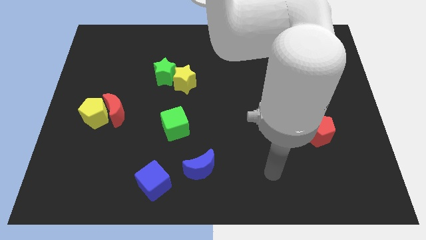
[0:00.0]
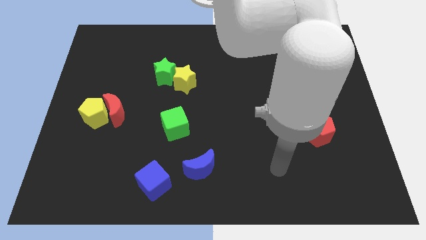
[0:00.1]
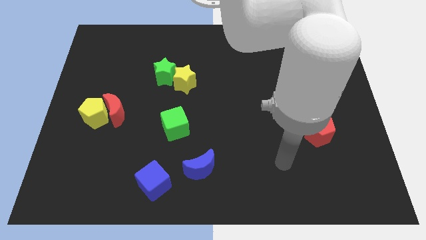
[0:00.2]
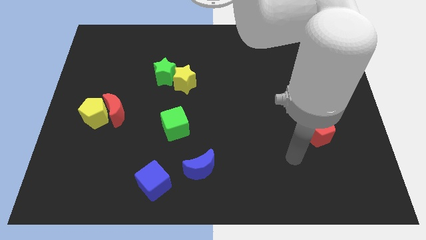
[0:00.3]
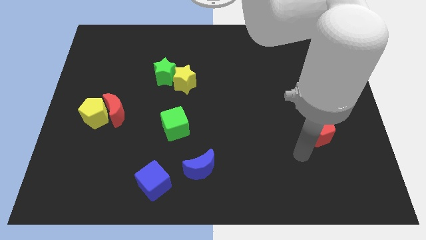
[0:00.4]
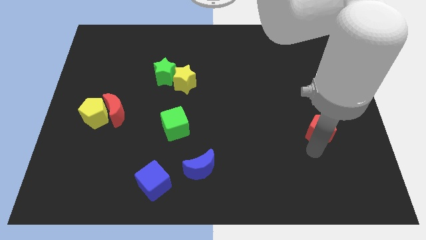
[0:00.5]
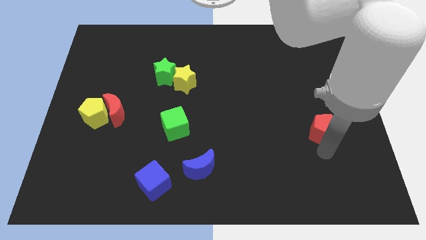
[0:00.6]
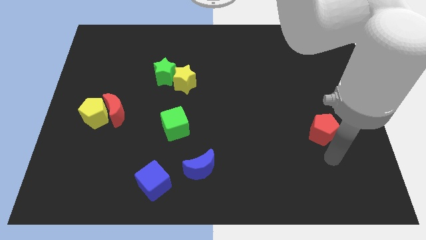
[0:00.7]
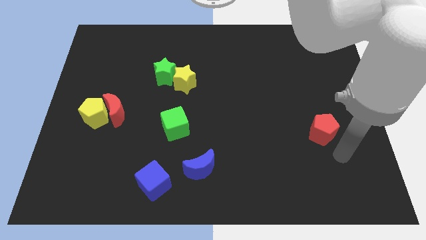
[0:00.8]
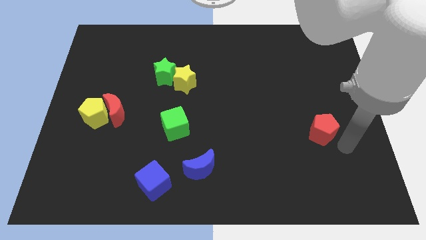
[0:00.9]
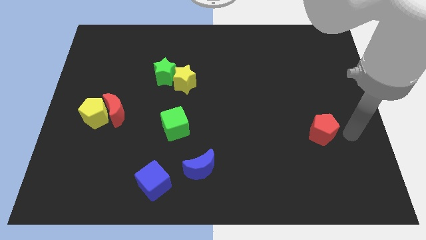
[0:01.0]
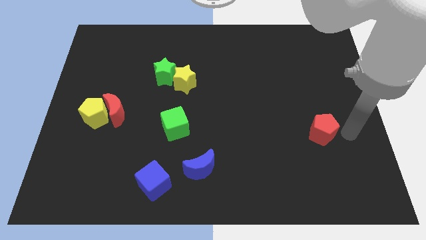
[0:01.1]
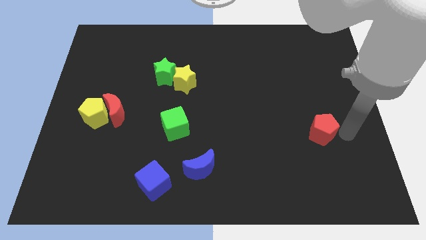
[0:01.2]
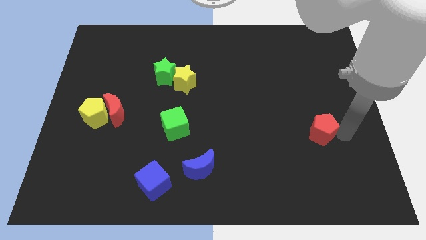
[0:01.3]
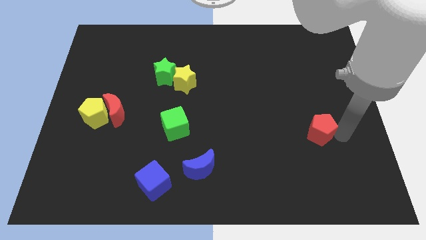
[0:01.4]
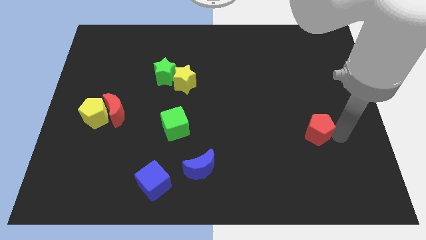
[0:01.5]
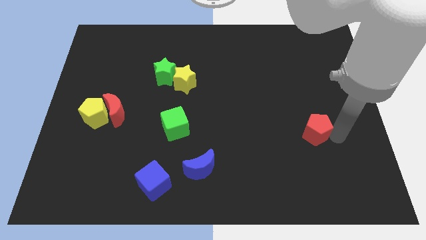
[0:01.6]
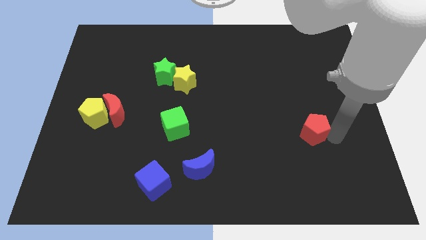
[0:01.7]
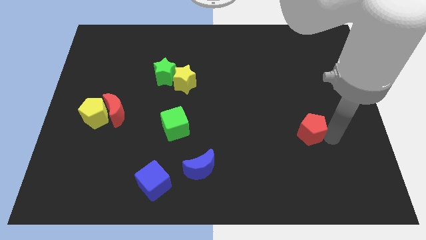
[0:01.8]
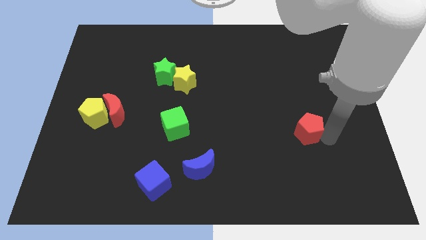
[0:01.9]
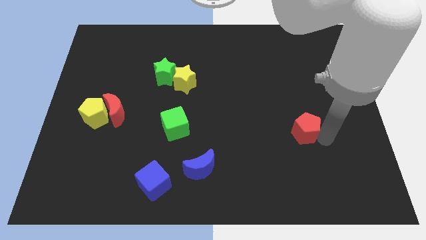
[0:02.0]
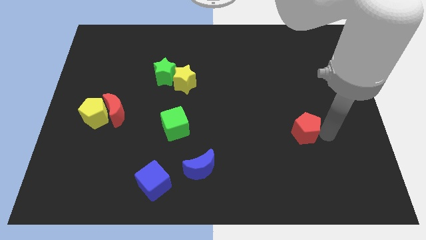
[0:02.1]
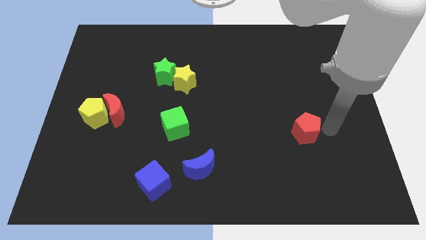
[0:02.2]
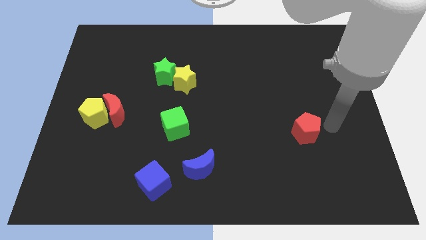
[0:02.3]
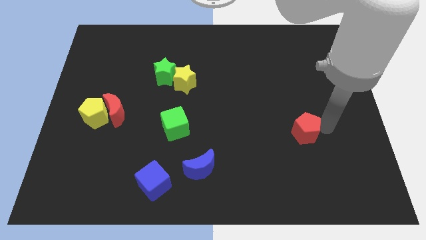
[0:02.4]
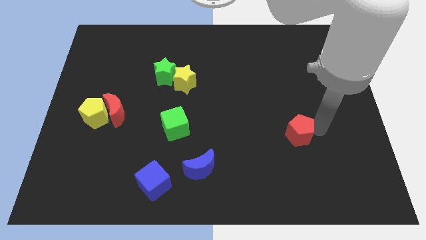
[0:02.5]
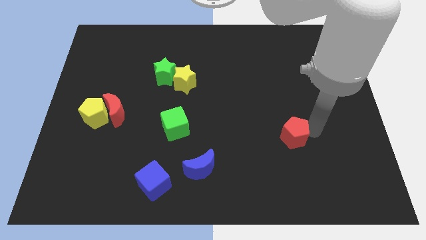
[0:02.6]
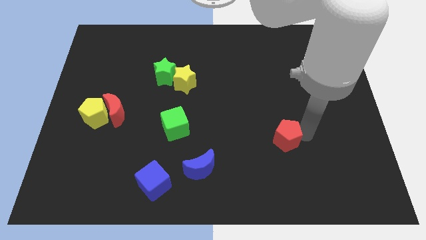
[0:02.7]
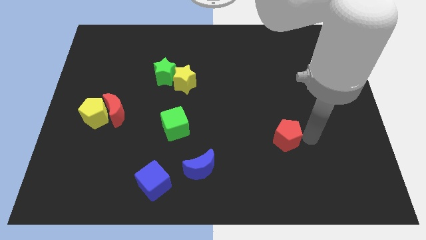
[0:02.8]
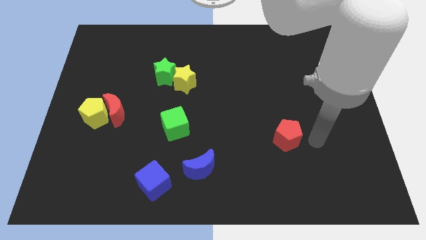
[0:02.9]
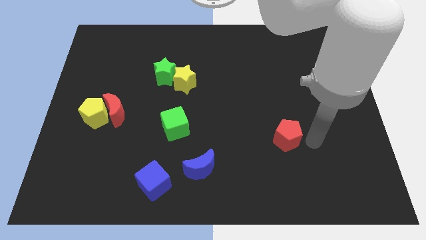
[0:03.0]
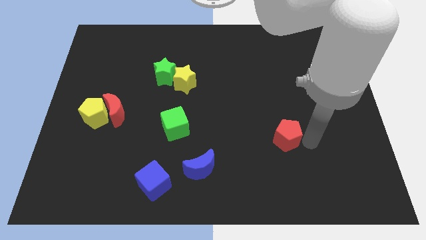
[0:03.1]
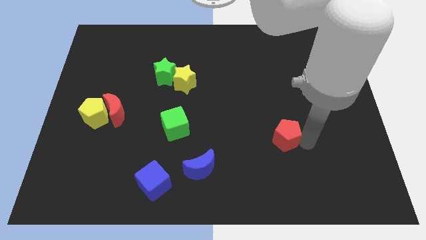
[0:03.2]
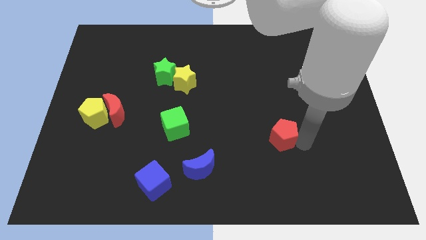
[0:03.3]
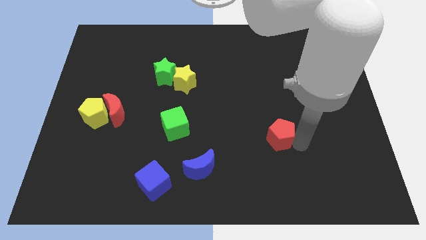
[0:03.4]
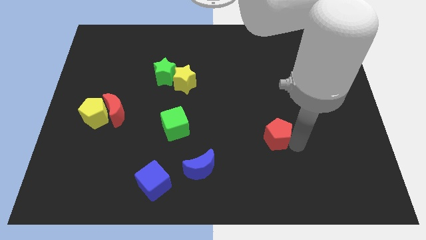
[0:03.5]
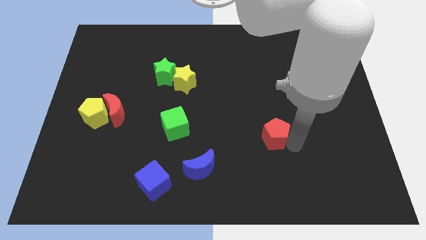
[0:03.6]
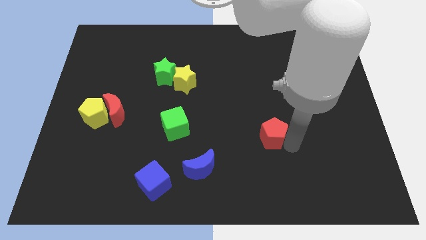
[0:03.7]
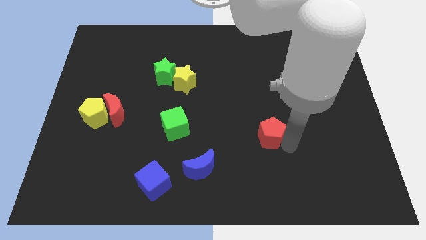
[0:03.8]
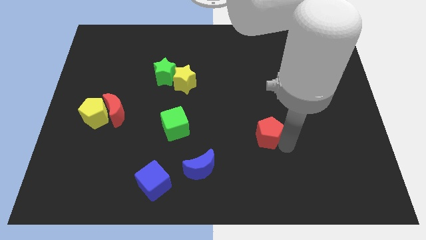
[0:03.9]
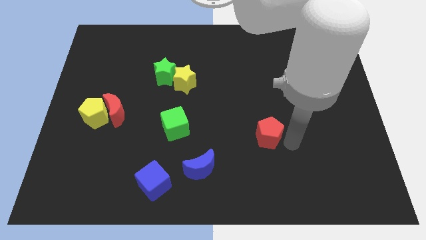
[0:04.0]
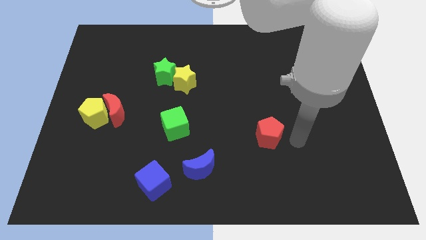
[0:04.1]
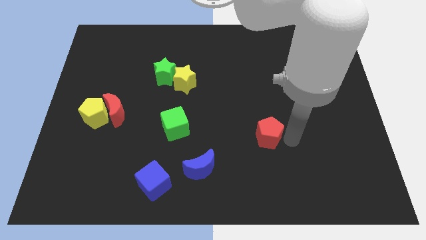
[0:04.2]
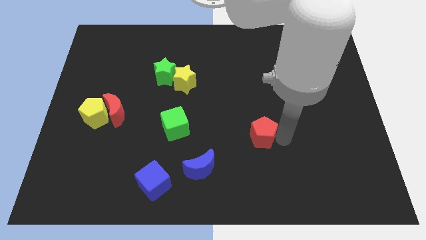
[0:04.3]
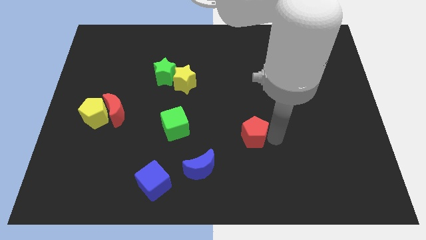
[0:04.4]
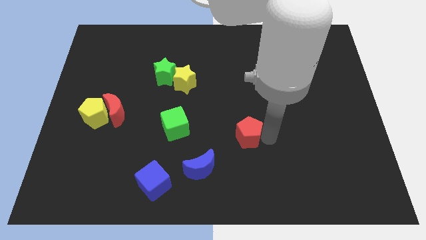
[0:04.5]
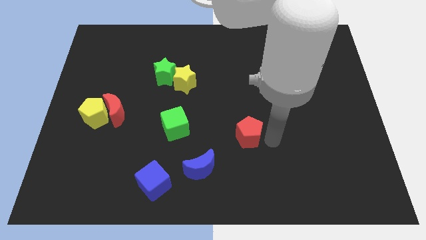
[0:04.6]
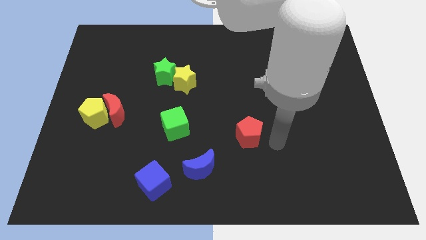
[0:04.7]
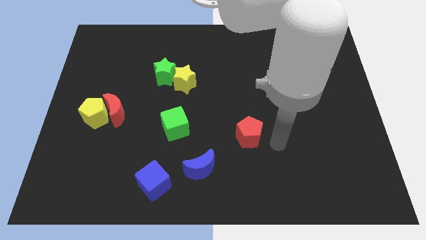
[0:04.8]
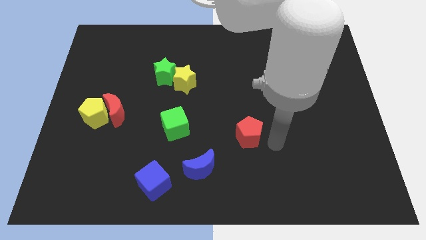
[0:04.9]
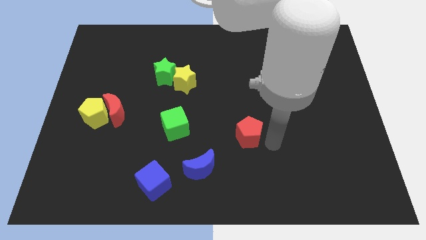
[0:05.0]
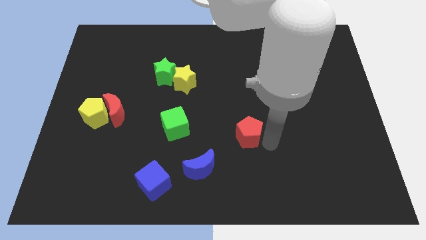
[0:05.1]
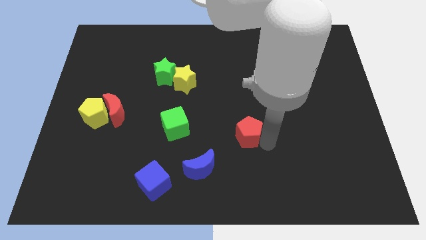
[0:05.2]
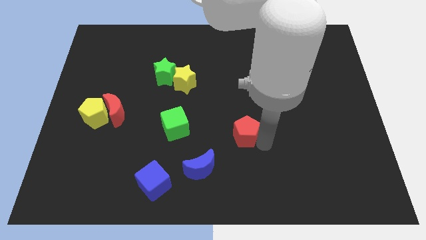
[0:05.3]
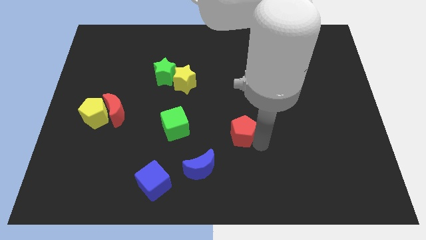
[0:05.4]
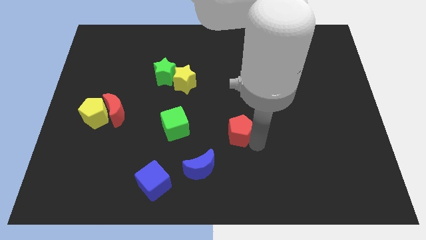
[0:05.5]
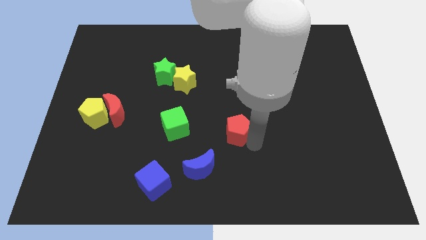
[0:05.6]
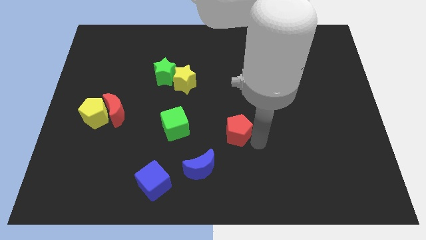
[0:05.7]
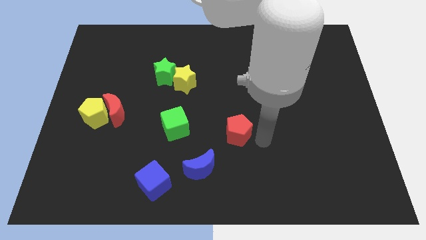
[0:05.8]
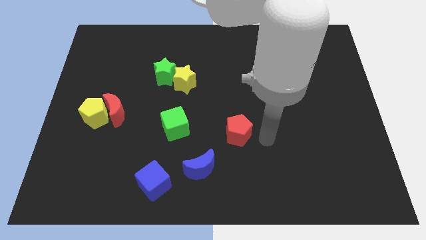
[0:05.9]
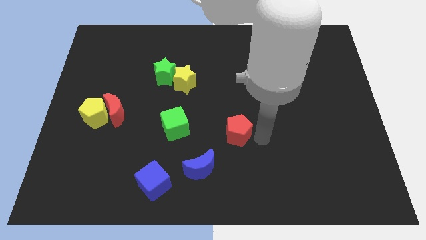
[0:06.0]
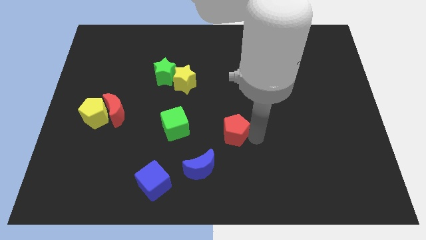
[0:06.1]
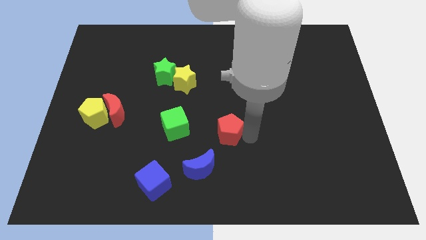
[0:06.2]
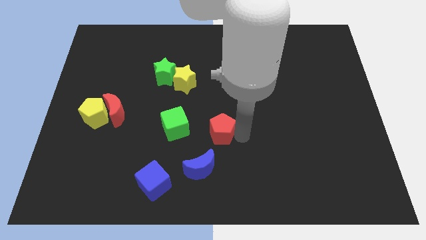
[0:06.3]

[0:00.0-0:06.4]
push the red pentagon to the top side of the blue moon
